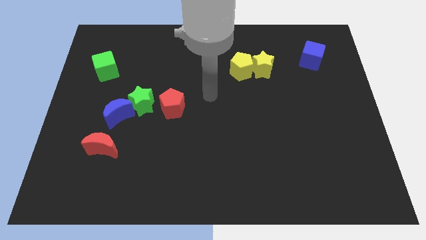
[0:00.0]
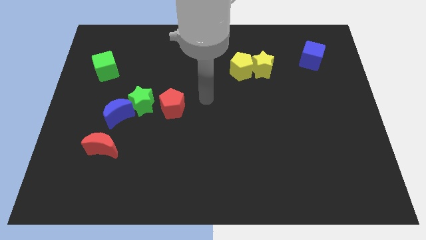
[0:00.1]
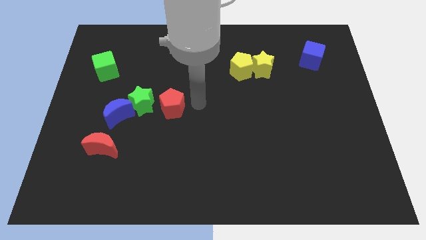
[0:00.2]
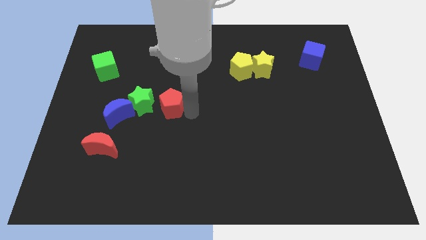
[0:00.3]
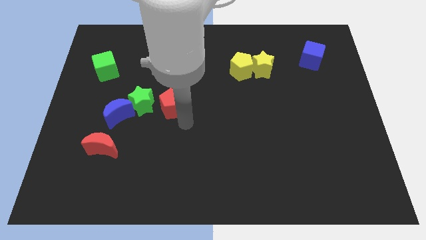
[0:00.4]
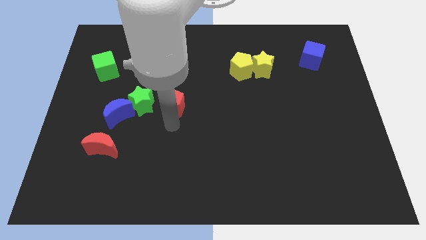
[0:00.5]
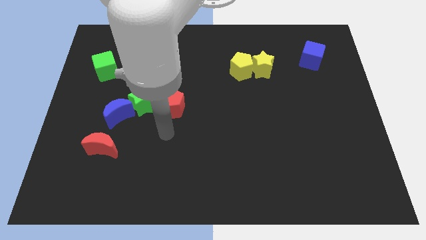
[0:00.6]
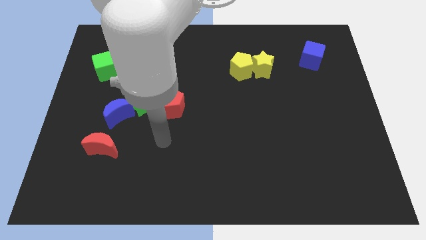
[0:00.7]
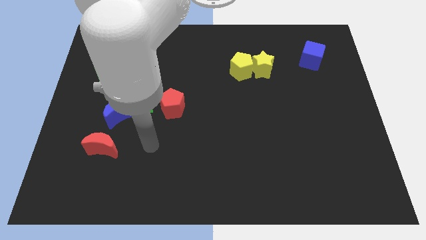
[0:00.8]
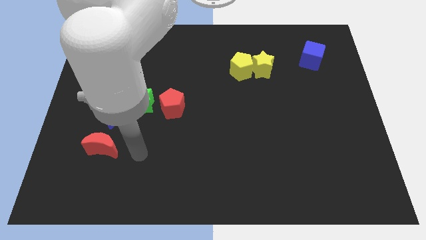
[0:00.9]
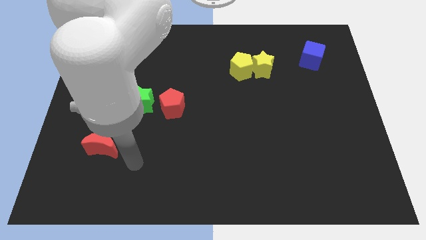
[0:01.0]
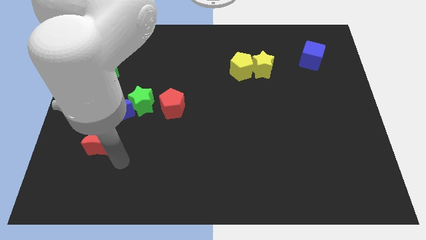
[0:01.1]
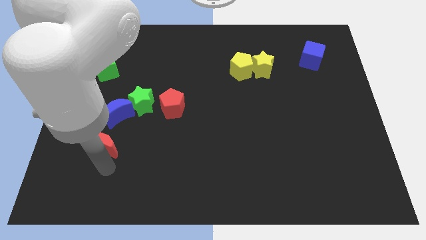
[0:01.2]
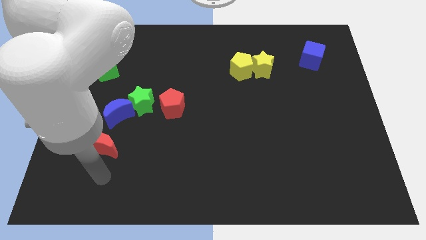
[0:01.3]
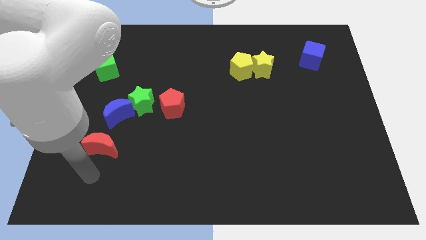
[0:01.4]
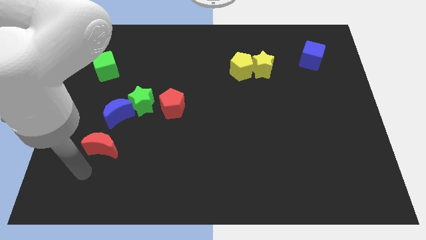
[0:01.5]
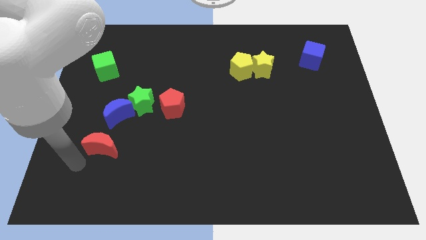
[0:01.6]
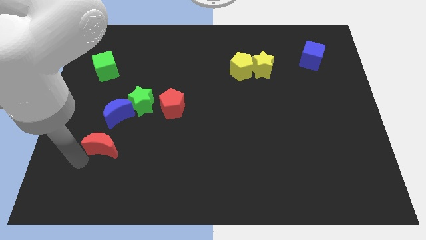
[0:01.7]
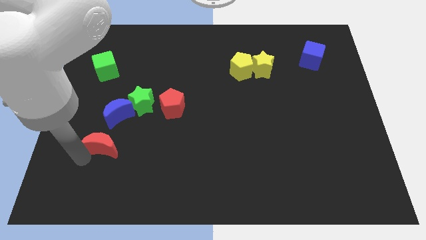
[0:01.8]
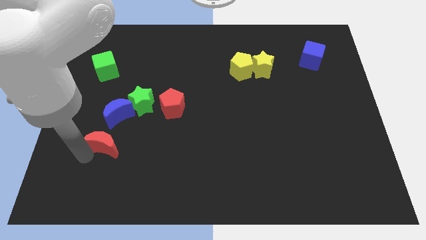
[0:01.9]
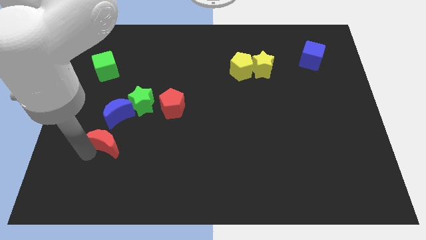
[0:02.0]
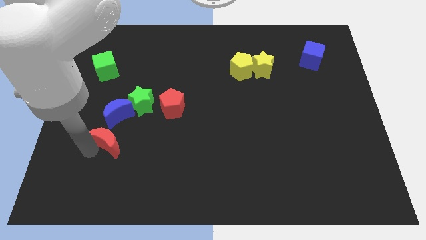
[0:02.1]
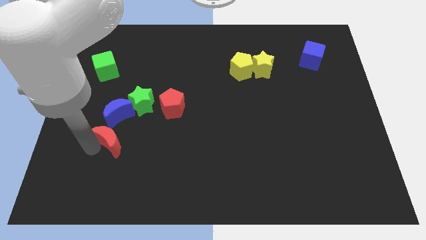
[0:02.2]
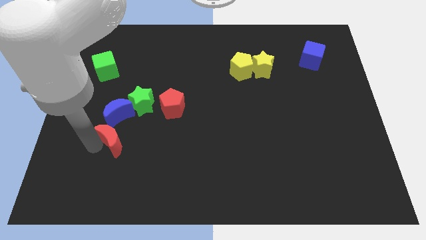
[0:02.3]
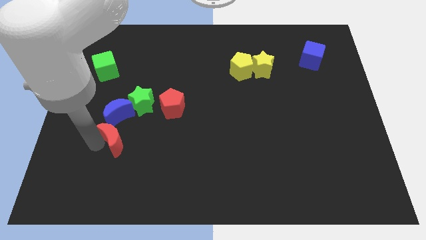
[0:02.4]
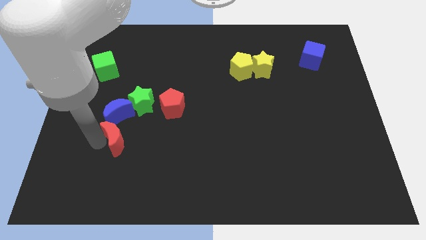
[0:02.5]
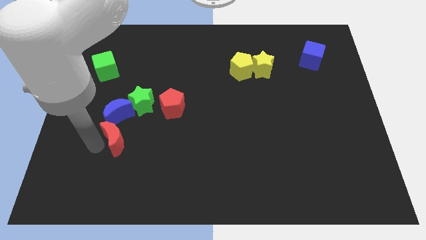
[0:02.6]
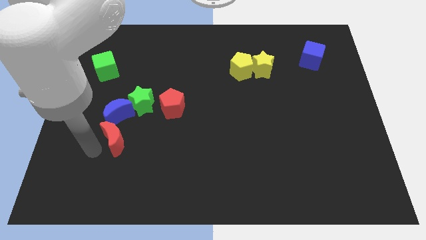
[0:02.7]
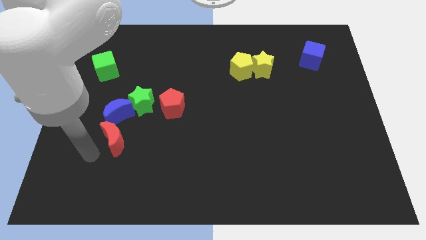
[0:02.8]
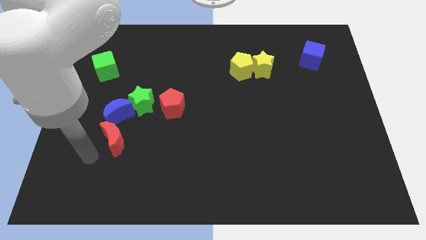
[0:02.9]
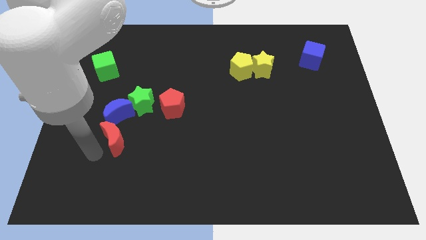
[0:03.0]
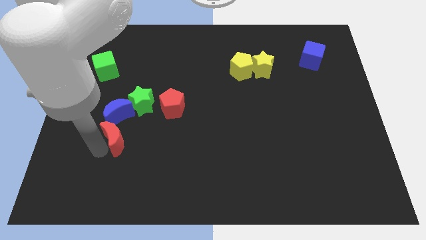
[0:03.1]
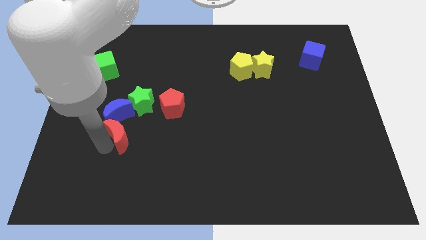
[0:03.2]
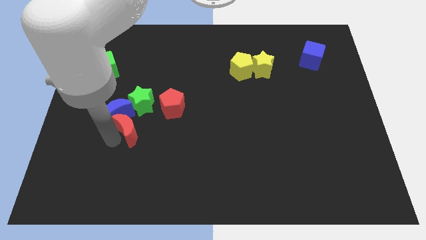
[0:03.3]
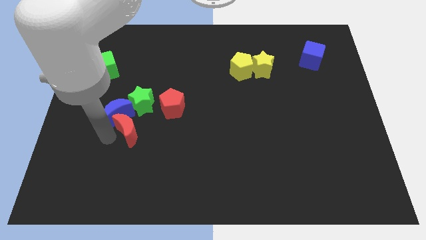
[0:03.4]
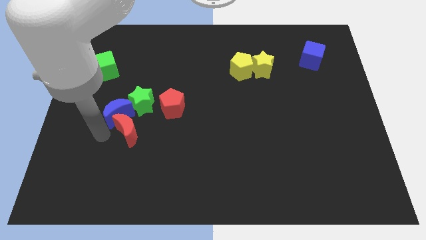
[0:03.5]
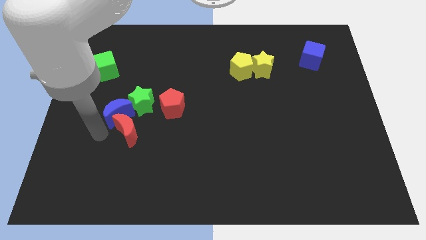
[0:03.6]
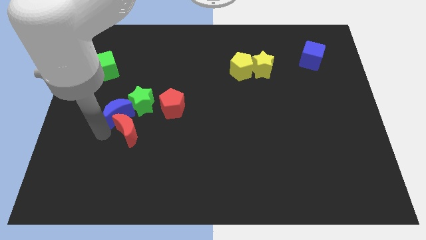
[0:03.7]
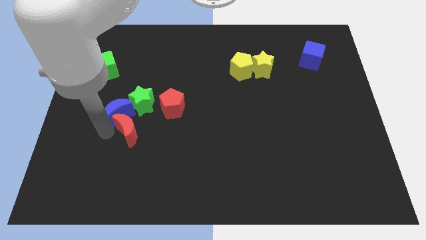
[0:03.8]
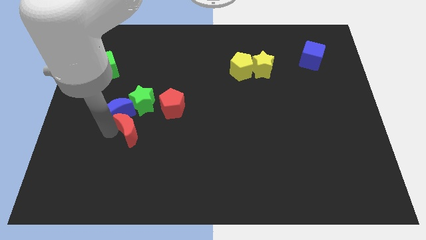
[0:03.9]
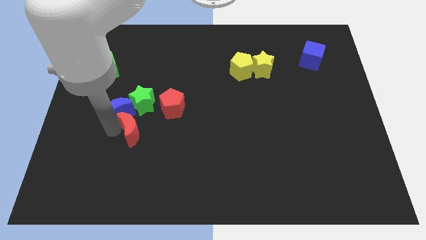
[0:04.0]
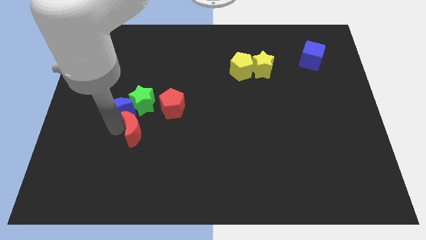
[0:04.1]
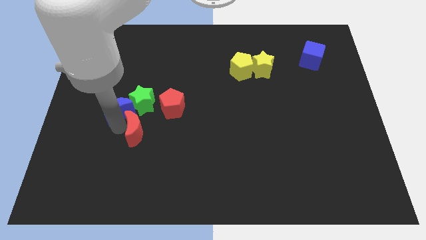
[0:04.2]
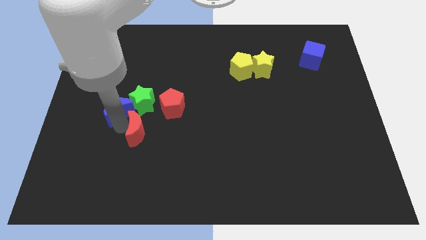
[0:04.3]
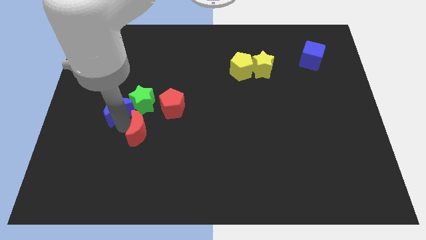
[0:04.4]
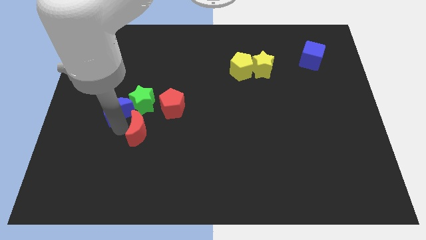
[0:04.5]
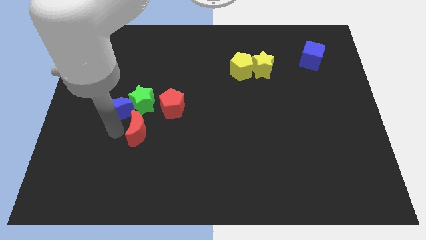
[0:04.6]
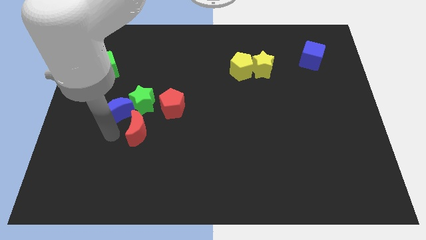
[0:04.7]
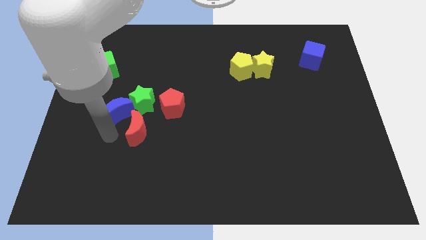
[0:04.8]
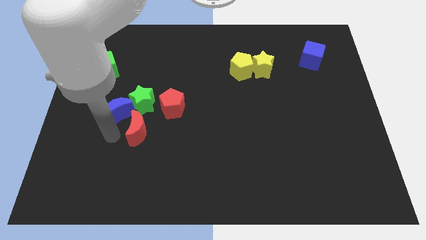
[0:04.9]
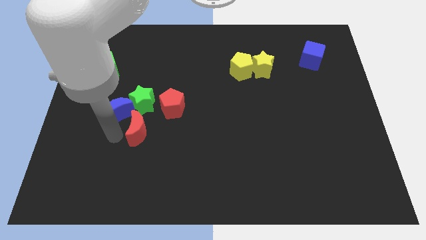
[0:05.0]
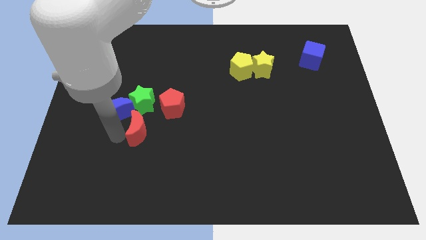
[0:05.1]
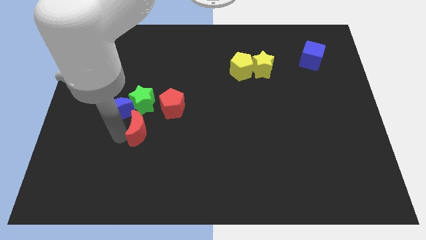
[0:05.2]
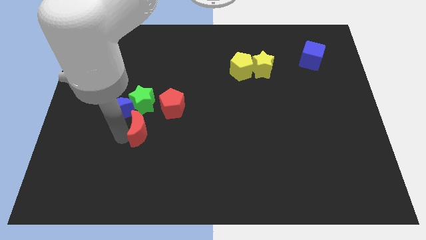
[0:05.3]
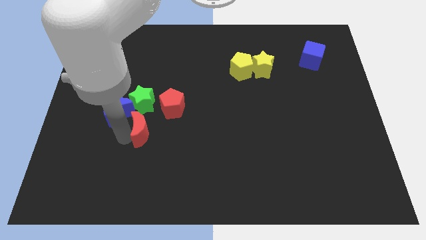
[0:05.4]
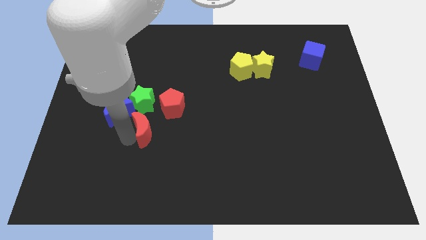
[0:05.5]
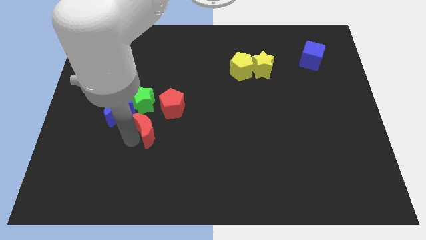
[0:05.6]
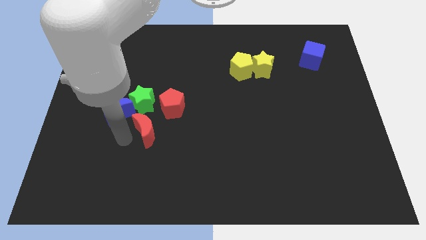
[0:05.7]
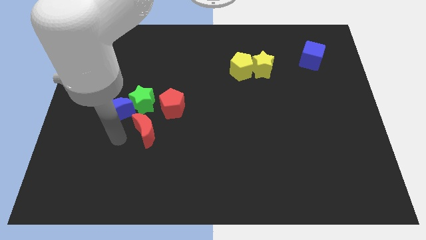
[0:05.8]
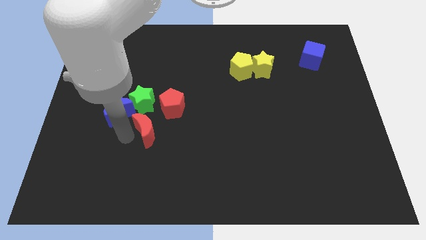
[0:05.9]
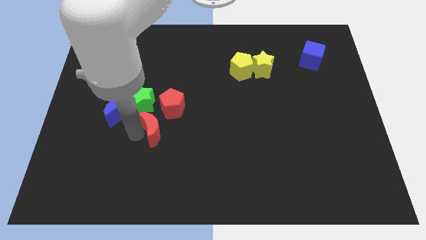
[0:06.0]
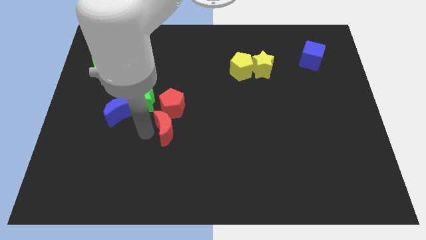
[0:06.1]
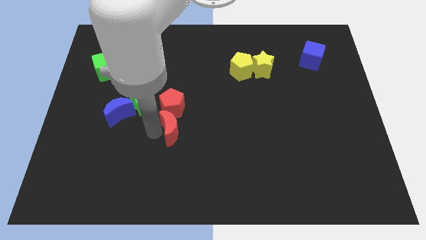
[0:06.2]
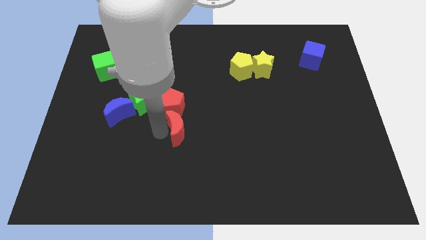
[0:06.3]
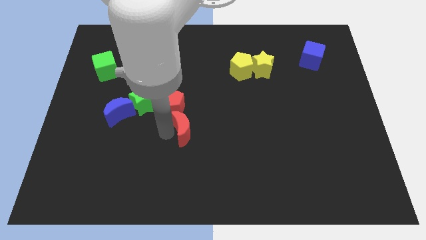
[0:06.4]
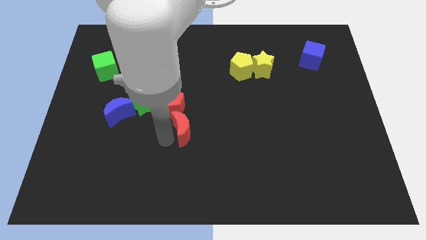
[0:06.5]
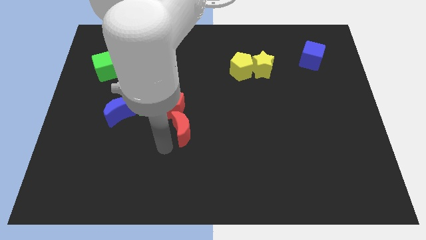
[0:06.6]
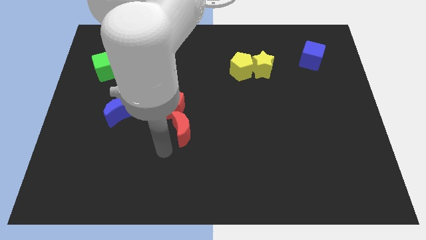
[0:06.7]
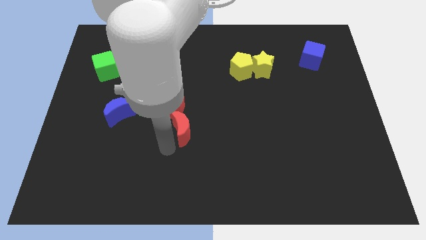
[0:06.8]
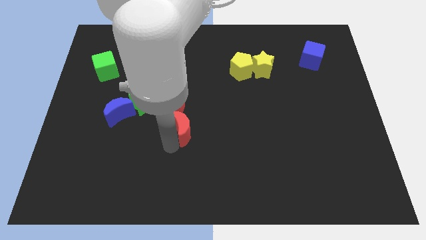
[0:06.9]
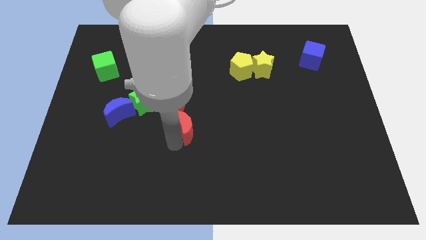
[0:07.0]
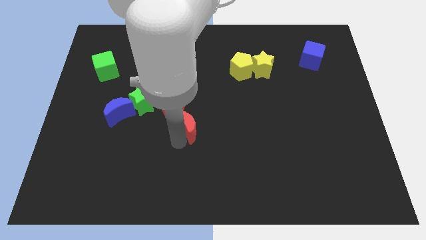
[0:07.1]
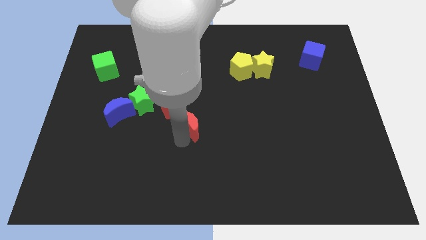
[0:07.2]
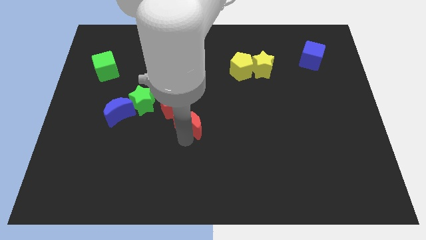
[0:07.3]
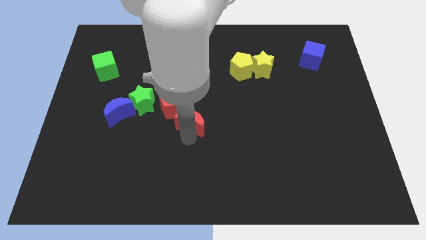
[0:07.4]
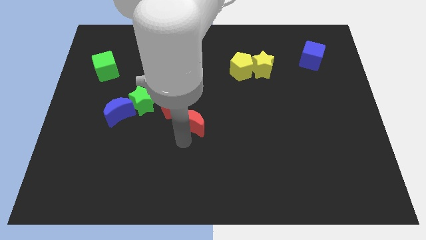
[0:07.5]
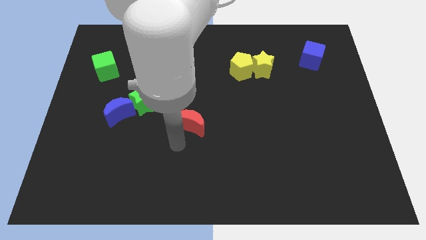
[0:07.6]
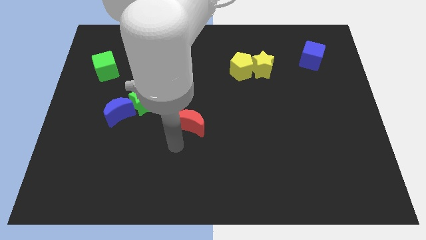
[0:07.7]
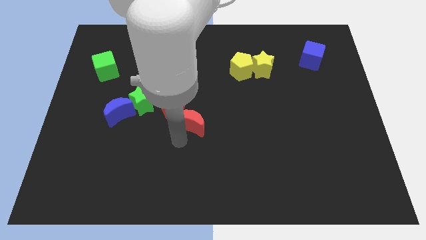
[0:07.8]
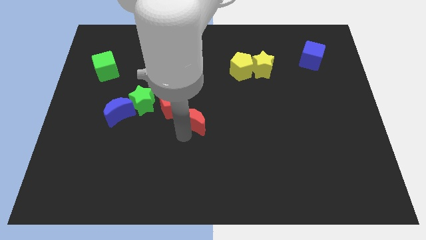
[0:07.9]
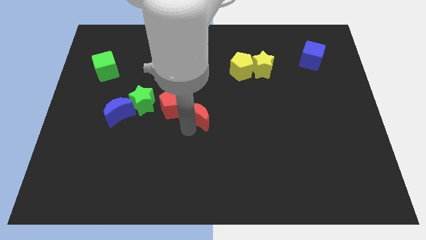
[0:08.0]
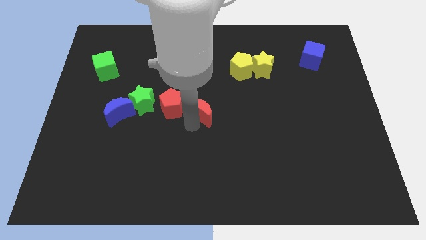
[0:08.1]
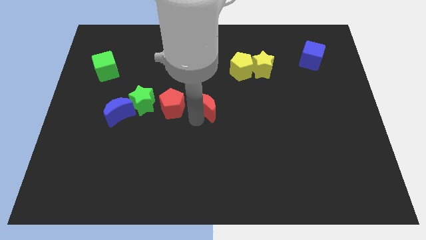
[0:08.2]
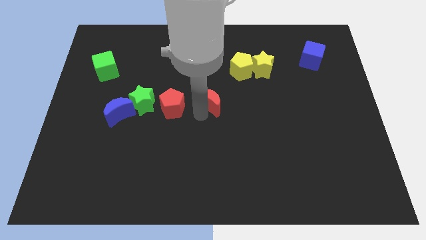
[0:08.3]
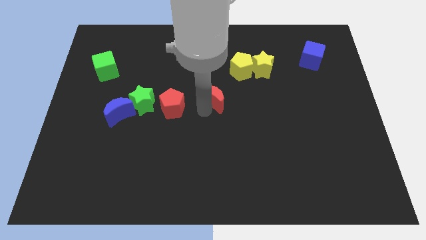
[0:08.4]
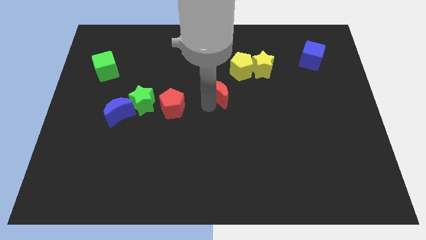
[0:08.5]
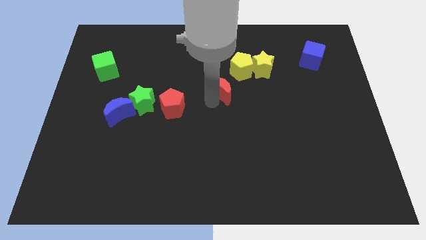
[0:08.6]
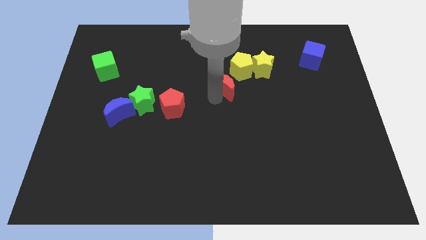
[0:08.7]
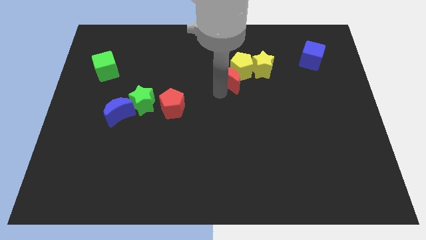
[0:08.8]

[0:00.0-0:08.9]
push the red moon next to the yellow pentagon
